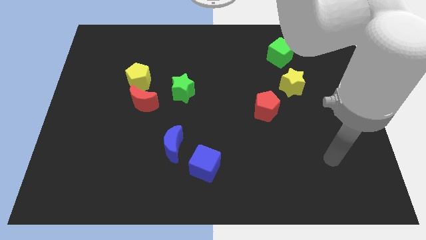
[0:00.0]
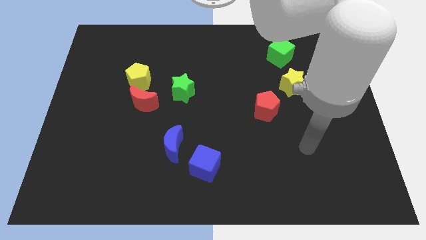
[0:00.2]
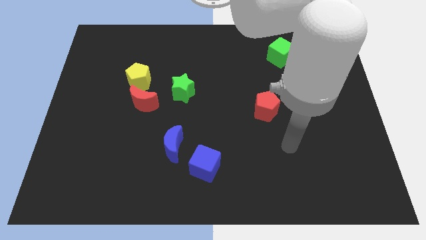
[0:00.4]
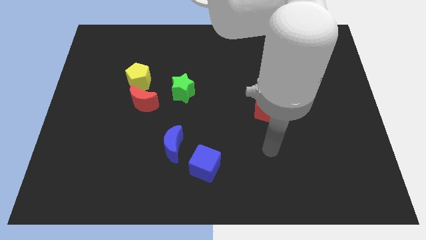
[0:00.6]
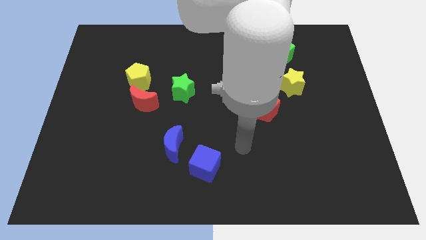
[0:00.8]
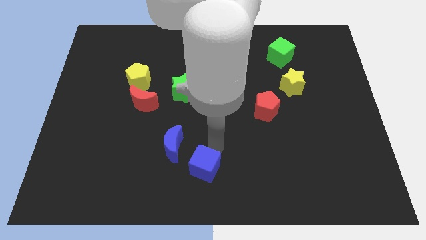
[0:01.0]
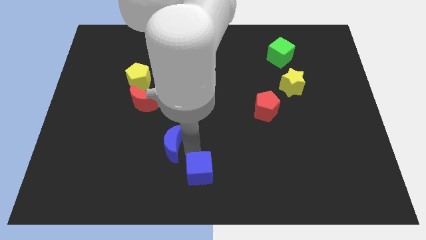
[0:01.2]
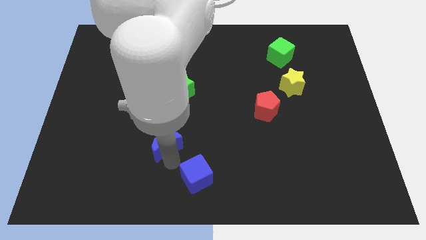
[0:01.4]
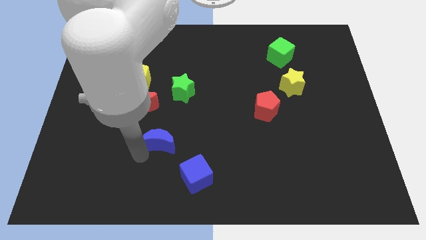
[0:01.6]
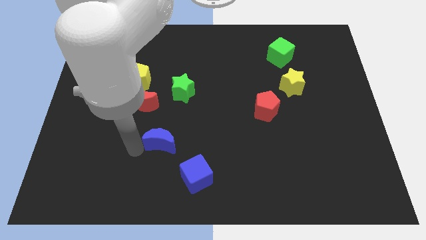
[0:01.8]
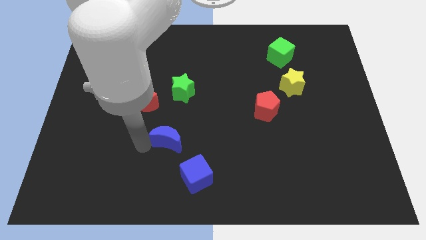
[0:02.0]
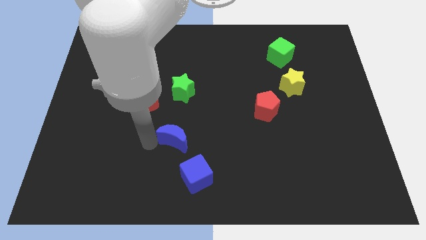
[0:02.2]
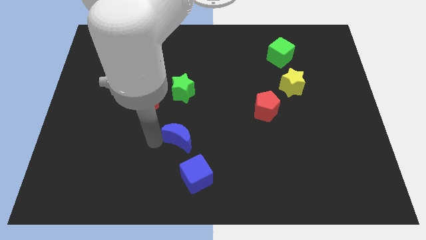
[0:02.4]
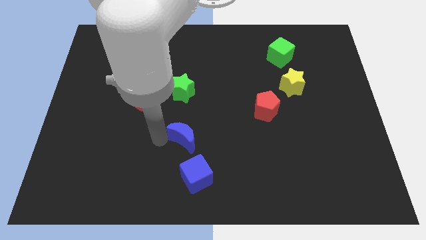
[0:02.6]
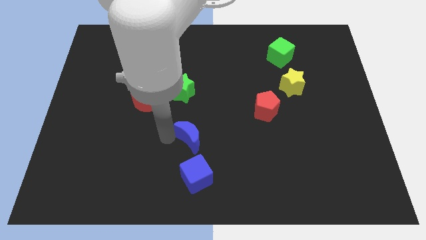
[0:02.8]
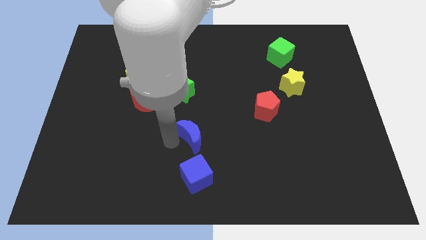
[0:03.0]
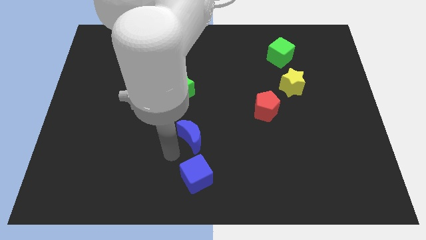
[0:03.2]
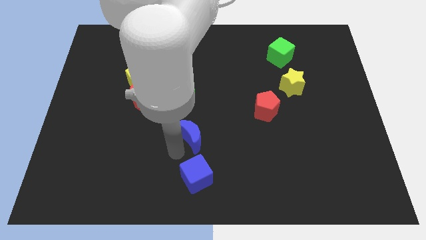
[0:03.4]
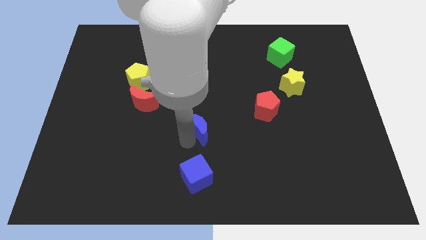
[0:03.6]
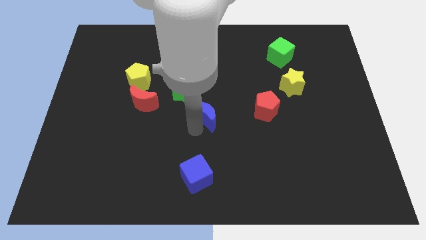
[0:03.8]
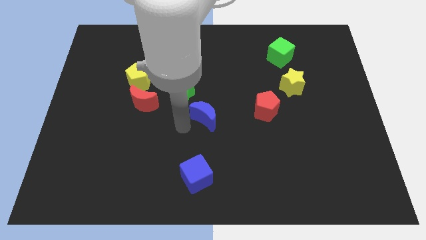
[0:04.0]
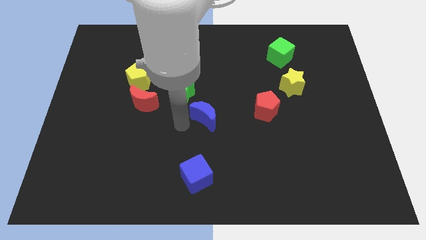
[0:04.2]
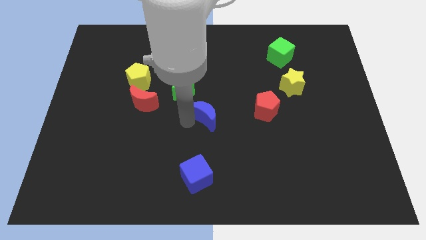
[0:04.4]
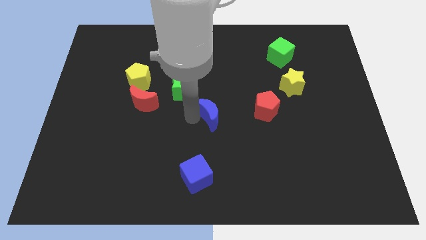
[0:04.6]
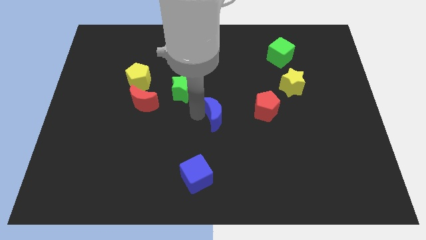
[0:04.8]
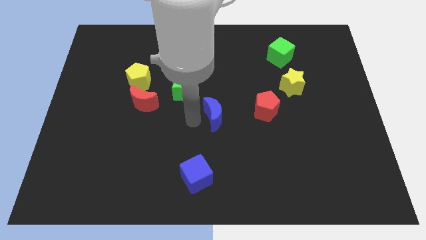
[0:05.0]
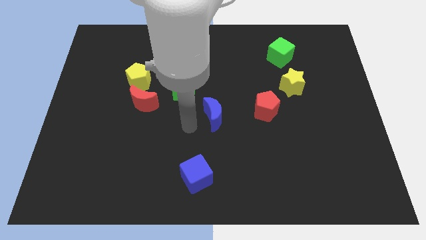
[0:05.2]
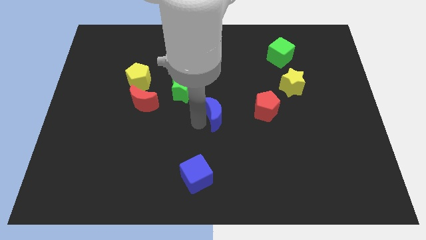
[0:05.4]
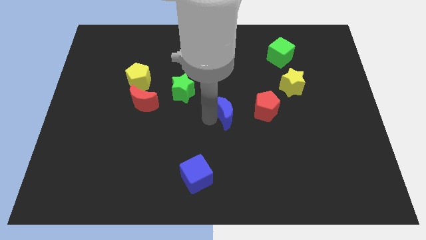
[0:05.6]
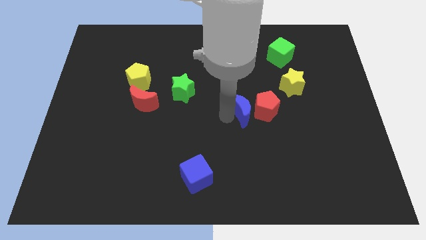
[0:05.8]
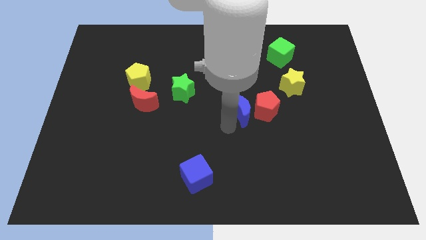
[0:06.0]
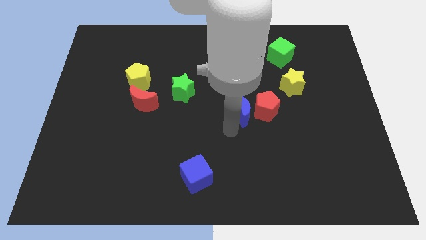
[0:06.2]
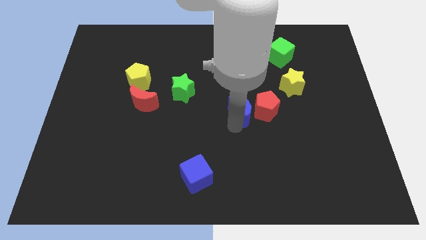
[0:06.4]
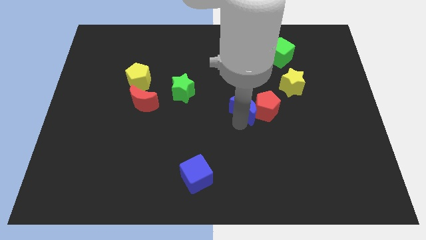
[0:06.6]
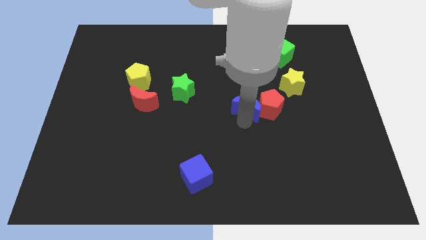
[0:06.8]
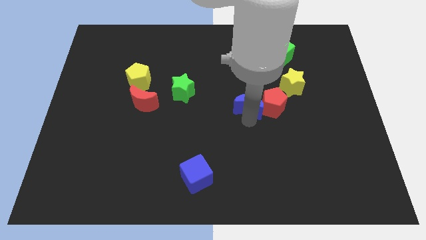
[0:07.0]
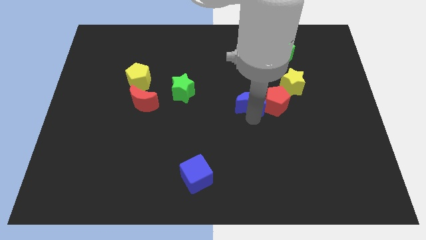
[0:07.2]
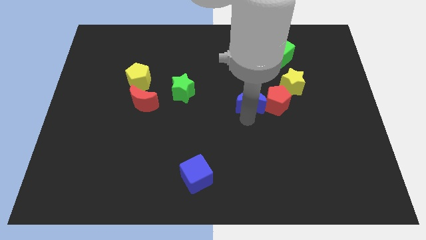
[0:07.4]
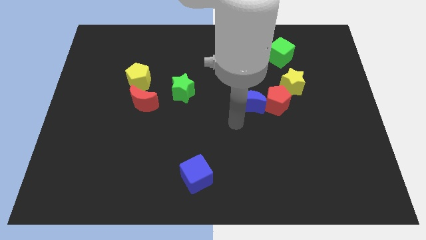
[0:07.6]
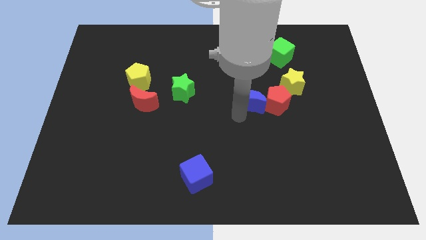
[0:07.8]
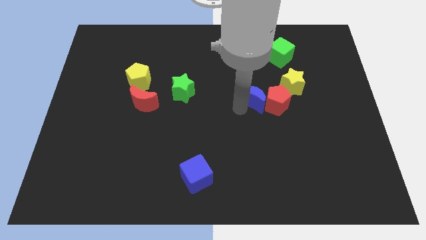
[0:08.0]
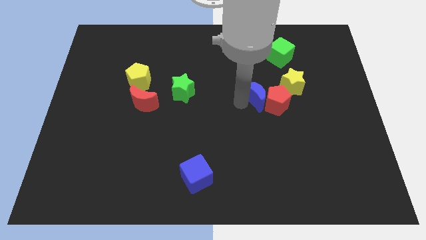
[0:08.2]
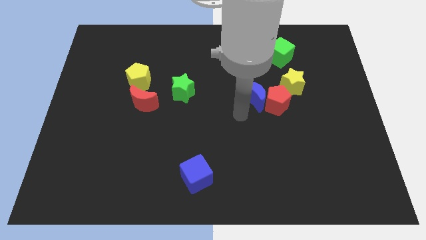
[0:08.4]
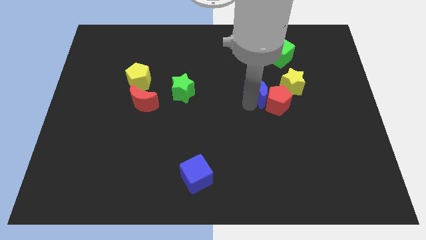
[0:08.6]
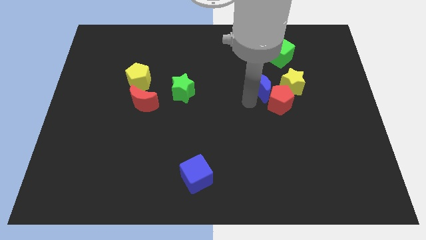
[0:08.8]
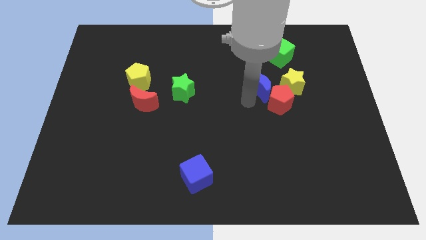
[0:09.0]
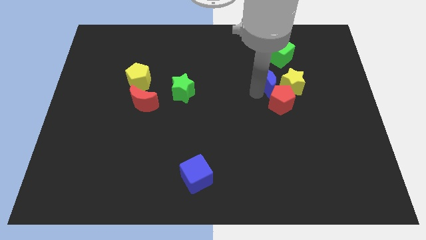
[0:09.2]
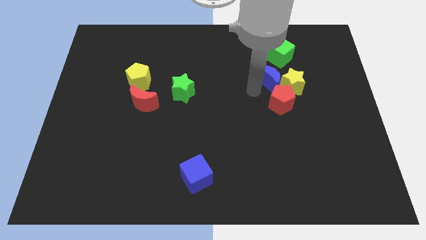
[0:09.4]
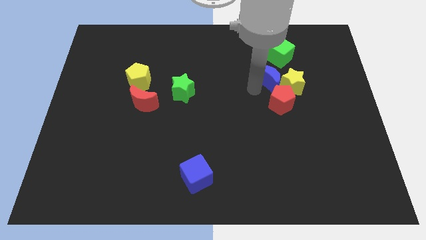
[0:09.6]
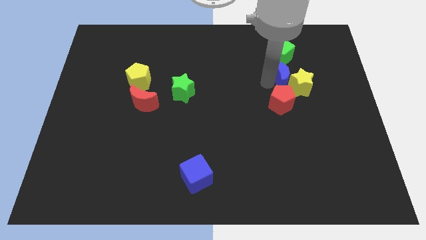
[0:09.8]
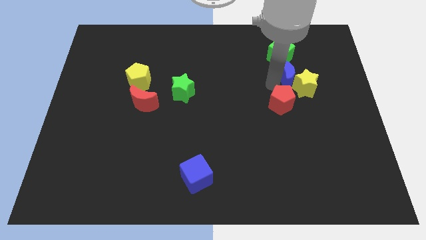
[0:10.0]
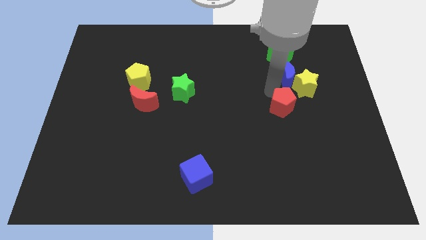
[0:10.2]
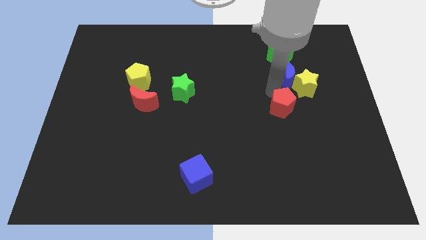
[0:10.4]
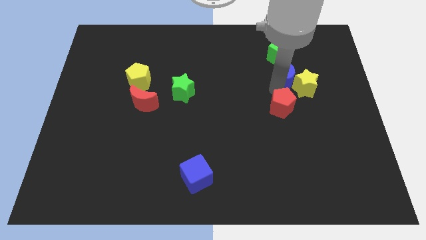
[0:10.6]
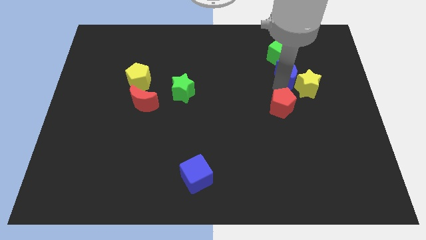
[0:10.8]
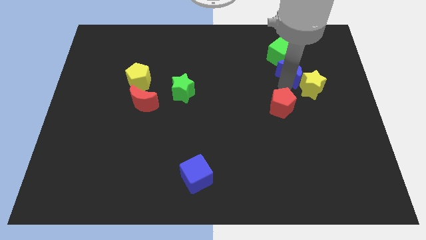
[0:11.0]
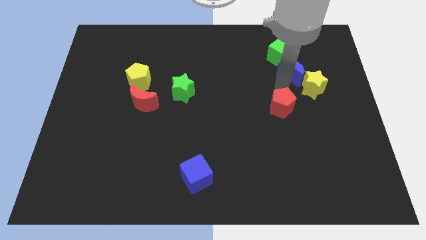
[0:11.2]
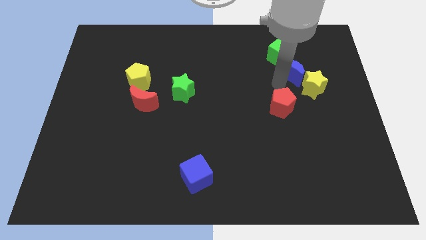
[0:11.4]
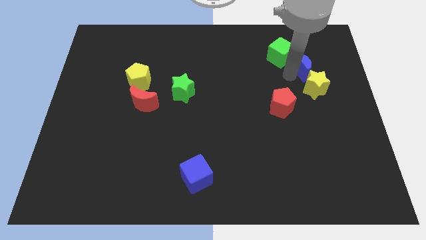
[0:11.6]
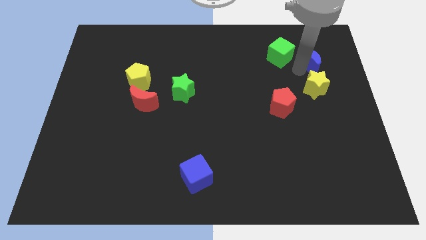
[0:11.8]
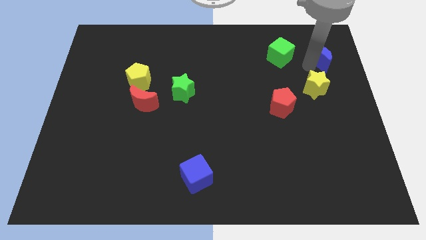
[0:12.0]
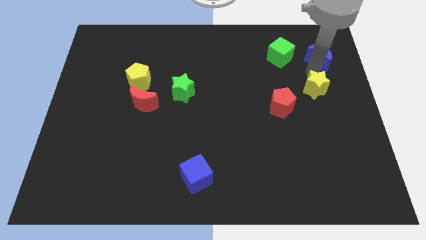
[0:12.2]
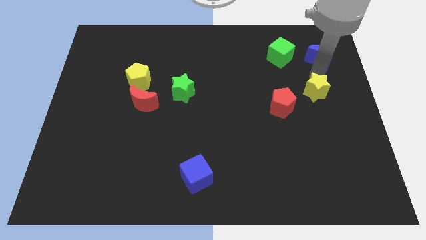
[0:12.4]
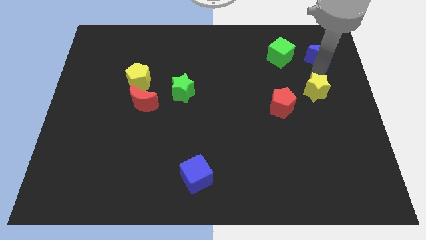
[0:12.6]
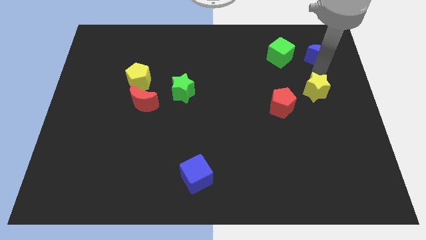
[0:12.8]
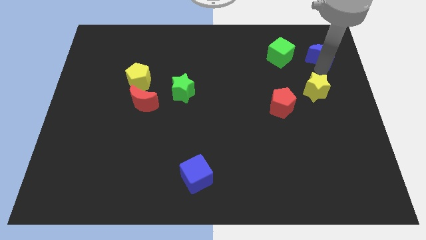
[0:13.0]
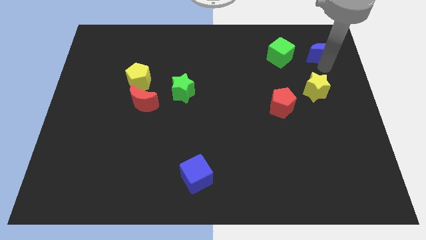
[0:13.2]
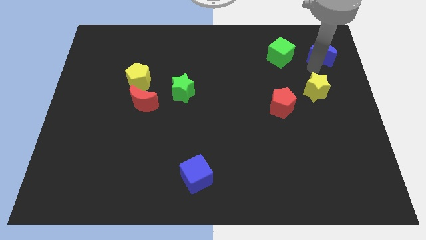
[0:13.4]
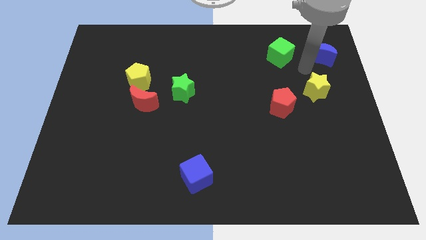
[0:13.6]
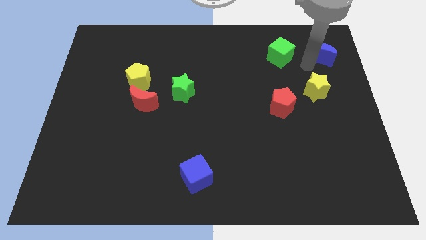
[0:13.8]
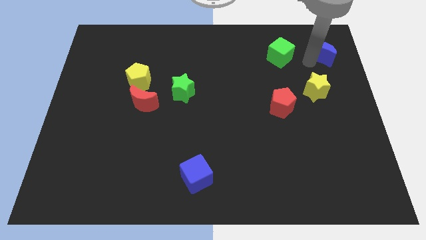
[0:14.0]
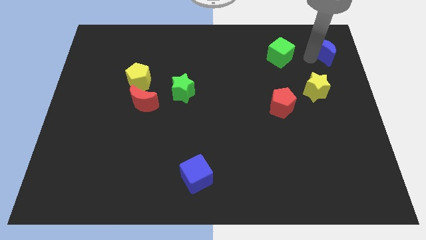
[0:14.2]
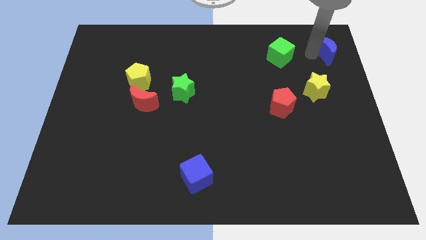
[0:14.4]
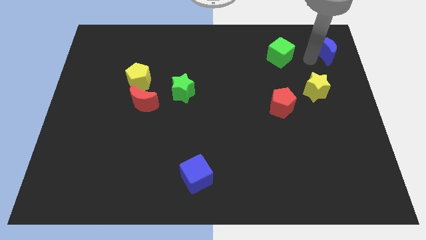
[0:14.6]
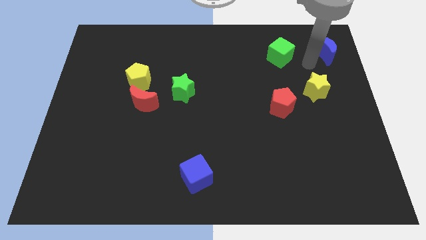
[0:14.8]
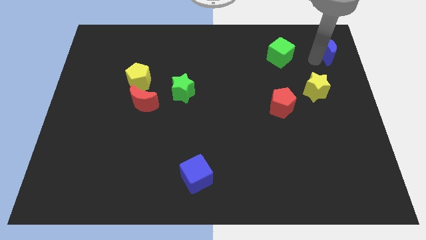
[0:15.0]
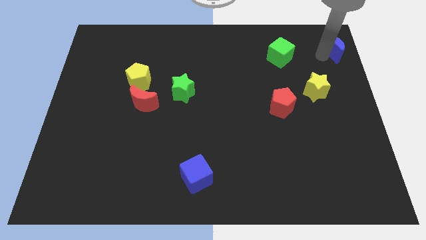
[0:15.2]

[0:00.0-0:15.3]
push the blue moon to the top right corner
